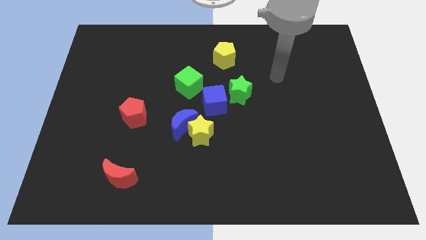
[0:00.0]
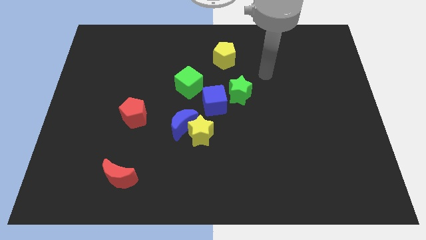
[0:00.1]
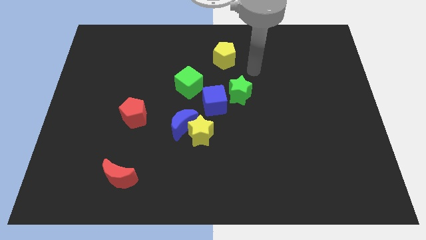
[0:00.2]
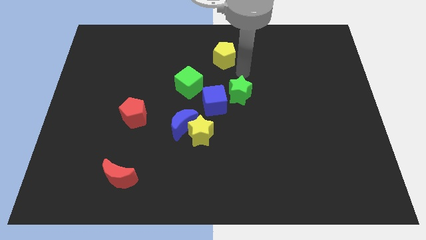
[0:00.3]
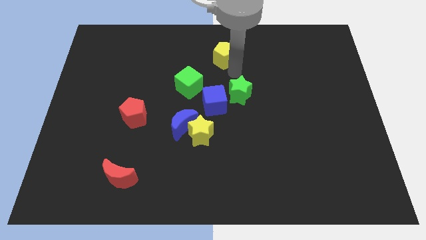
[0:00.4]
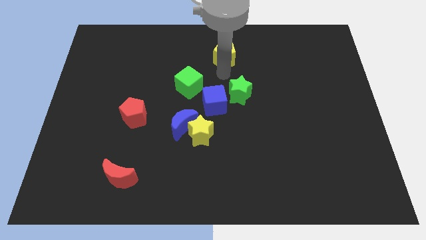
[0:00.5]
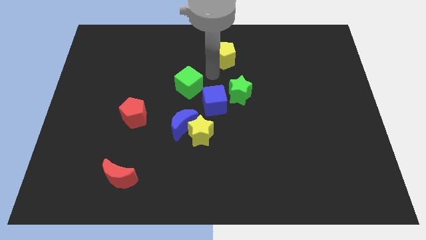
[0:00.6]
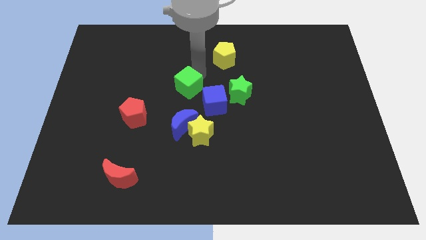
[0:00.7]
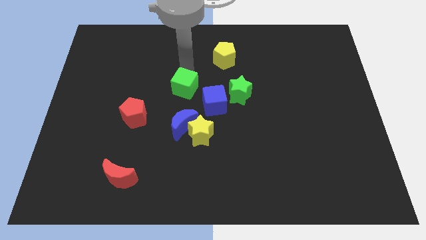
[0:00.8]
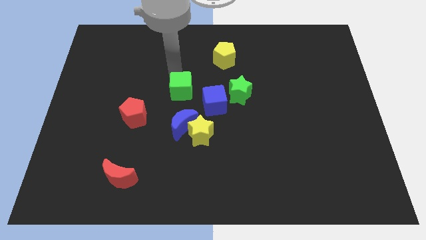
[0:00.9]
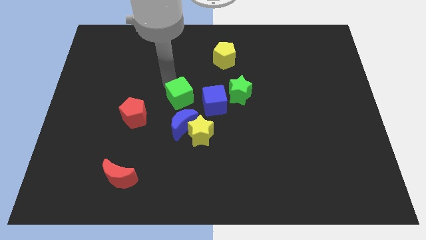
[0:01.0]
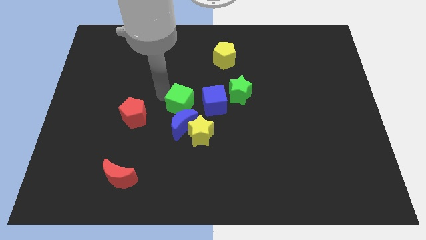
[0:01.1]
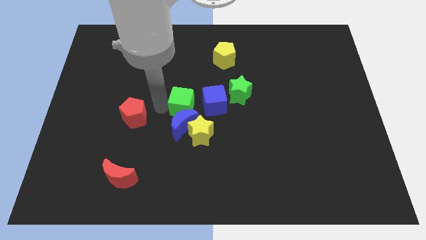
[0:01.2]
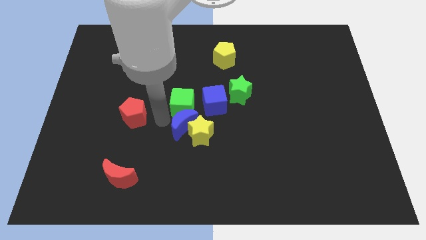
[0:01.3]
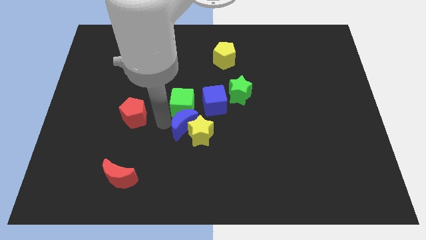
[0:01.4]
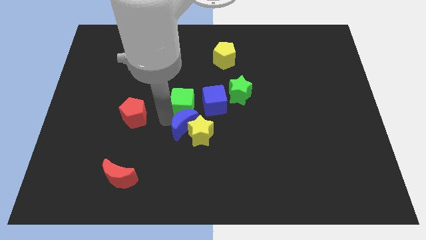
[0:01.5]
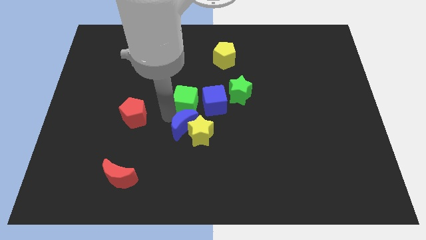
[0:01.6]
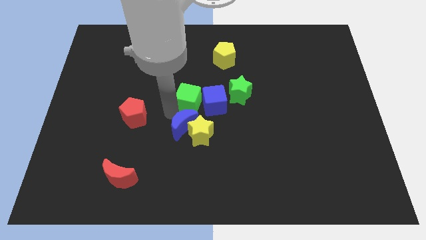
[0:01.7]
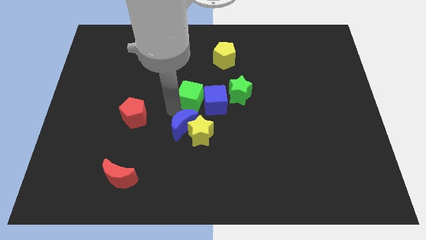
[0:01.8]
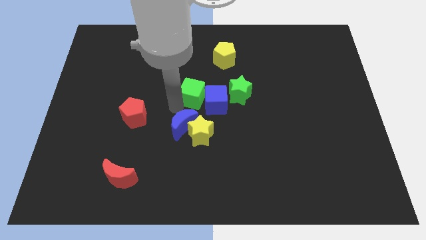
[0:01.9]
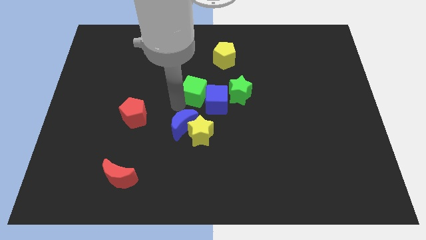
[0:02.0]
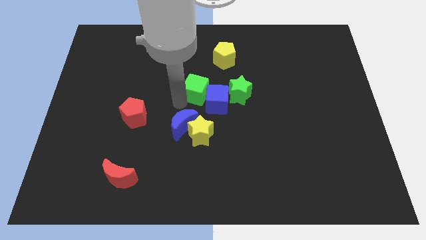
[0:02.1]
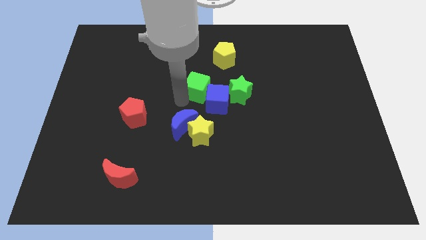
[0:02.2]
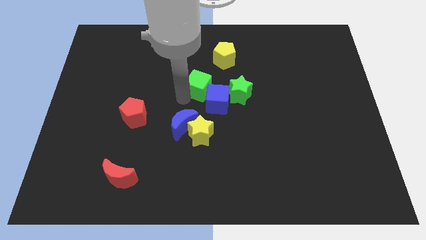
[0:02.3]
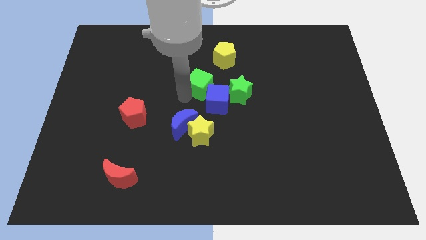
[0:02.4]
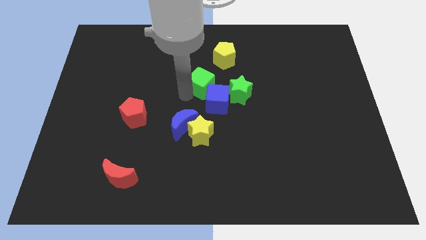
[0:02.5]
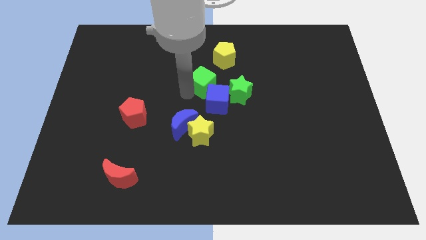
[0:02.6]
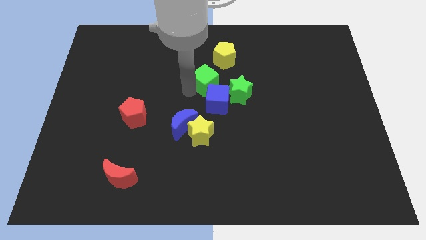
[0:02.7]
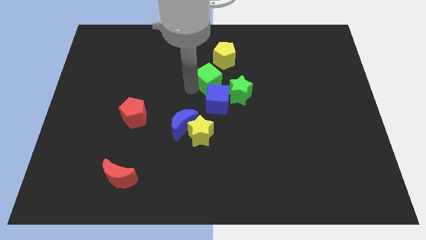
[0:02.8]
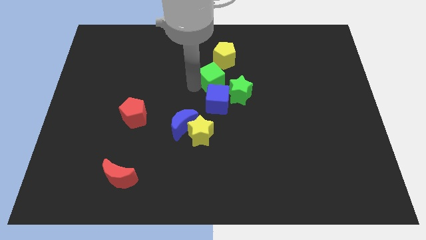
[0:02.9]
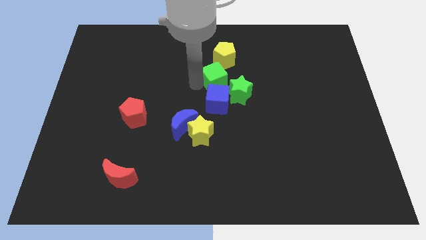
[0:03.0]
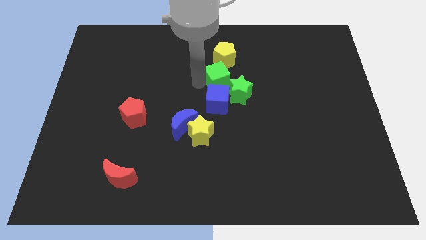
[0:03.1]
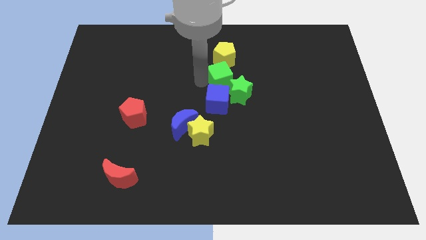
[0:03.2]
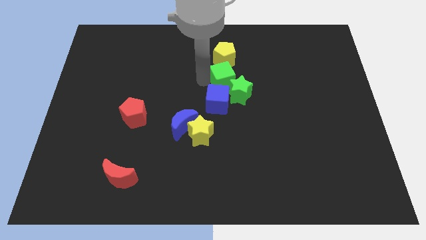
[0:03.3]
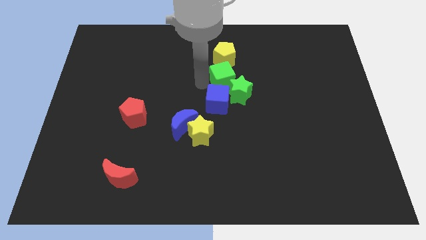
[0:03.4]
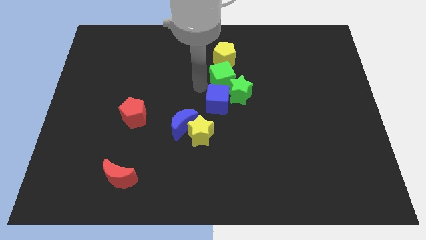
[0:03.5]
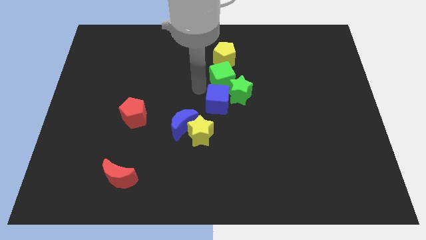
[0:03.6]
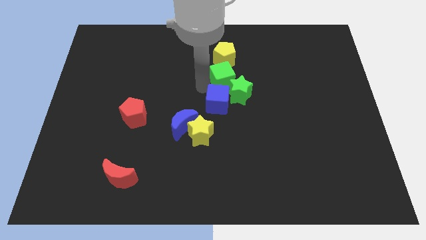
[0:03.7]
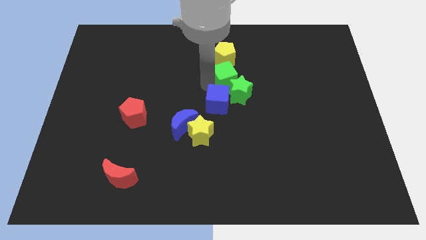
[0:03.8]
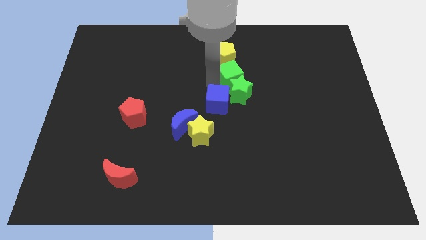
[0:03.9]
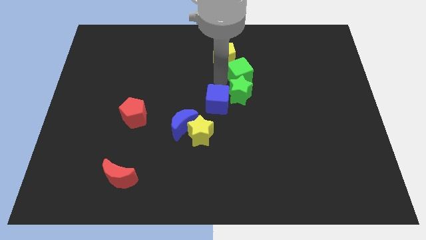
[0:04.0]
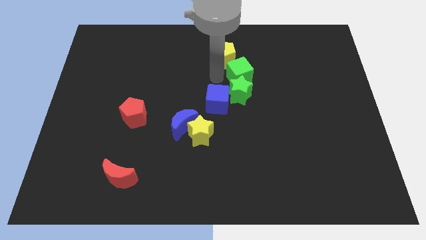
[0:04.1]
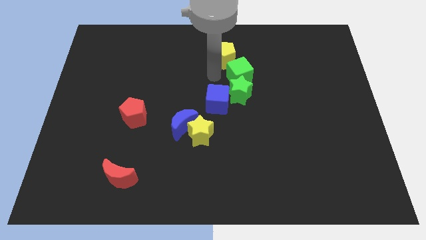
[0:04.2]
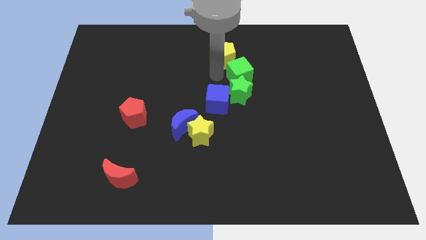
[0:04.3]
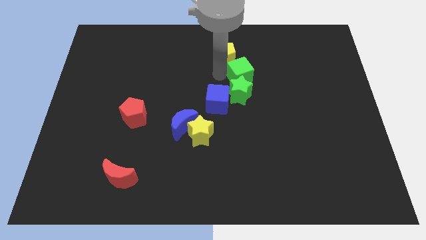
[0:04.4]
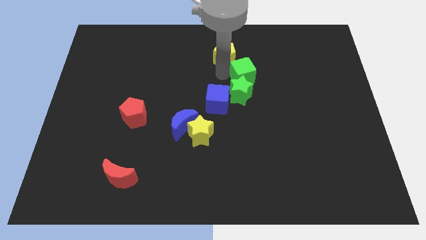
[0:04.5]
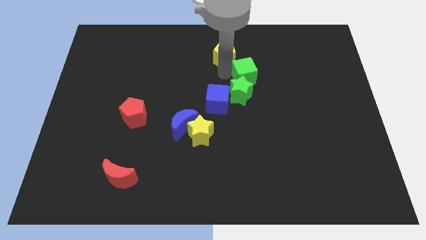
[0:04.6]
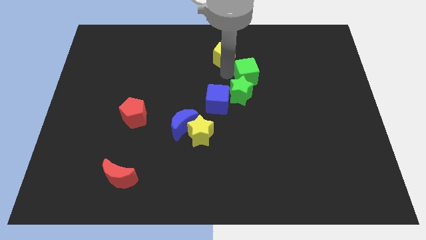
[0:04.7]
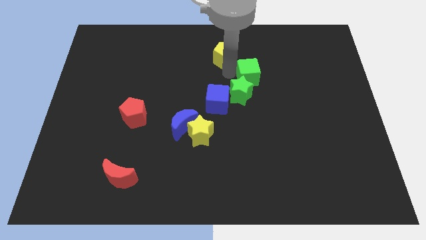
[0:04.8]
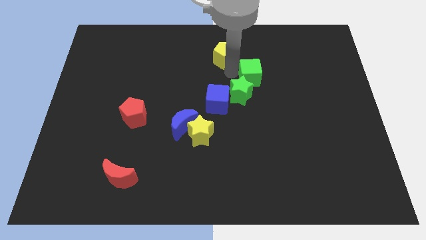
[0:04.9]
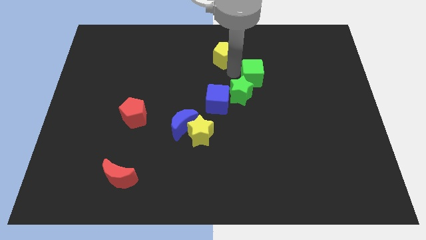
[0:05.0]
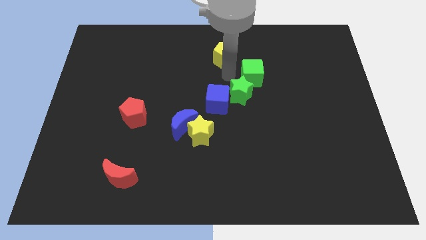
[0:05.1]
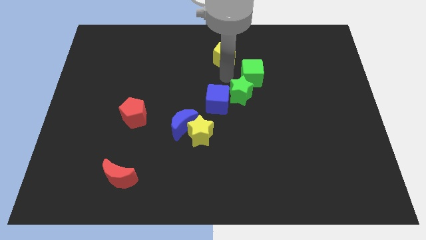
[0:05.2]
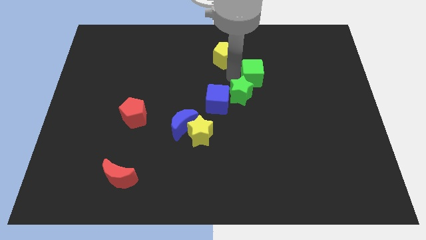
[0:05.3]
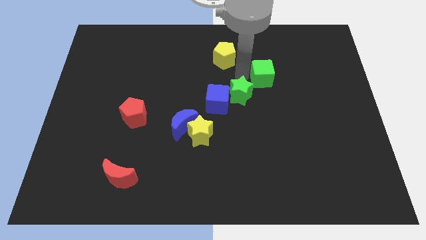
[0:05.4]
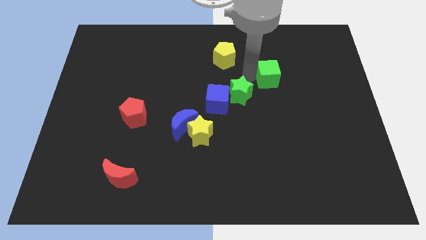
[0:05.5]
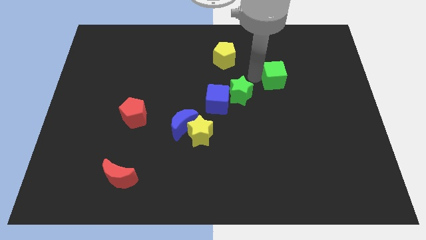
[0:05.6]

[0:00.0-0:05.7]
move the green cube to the right

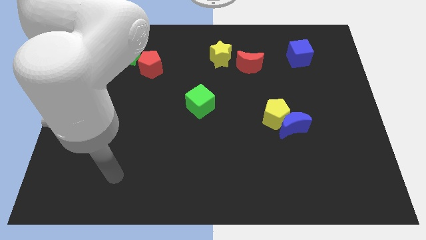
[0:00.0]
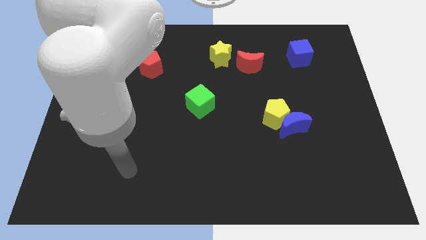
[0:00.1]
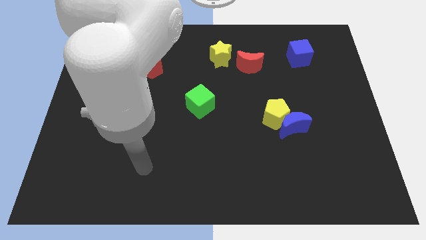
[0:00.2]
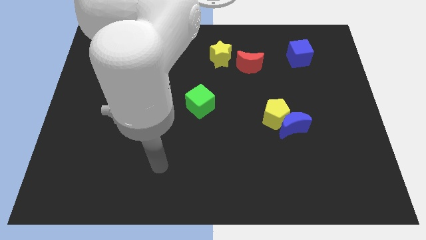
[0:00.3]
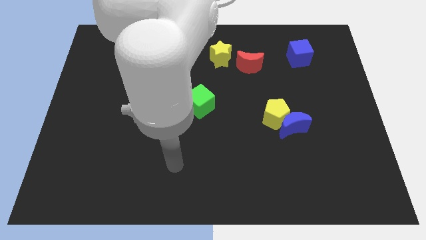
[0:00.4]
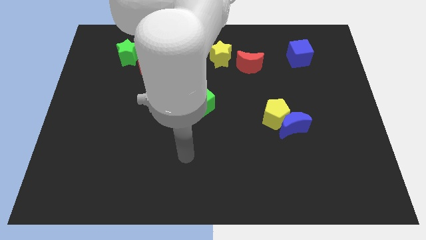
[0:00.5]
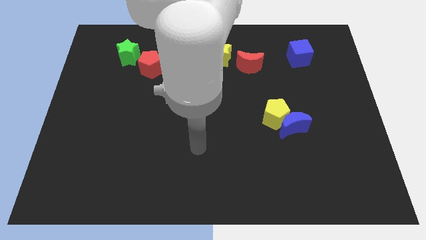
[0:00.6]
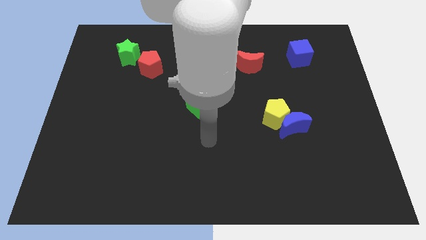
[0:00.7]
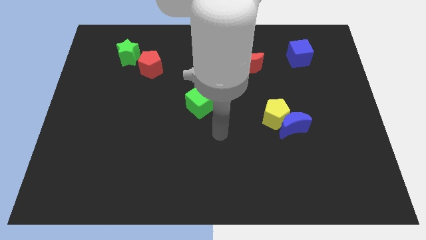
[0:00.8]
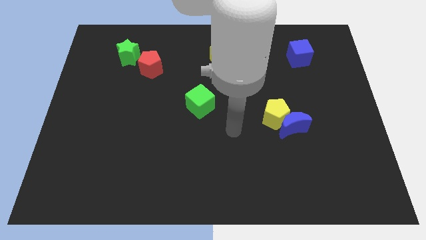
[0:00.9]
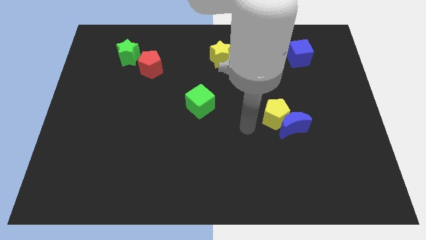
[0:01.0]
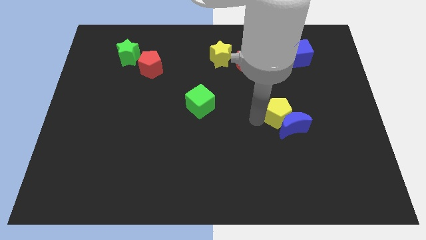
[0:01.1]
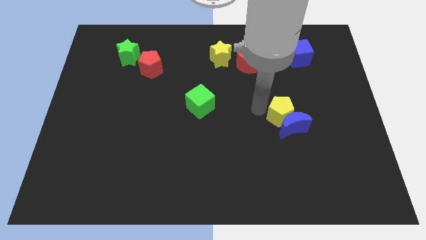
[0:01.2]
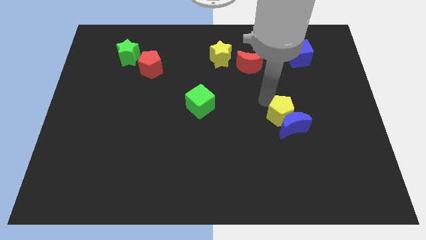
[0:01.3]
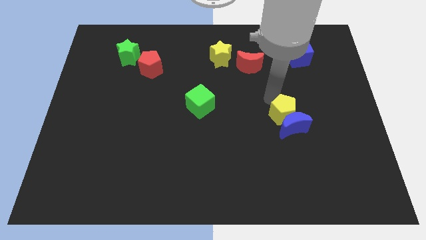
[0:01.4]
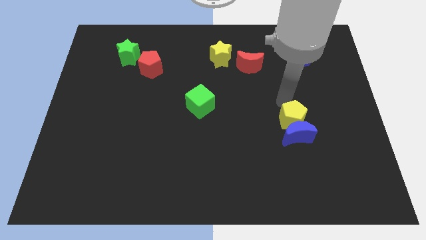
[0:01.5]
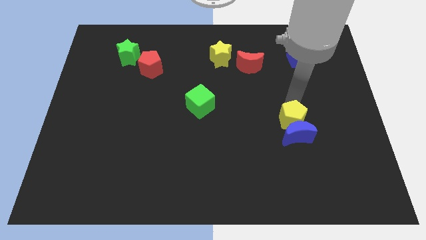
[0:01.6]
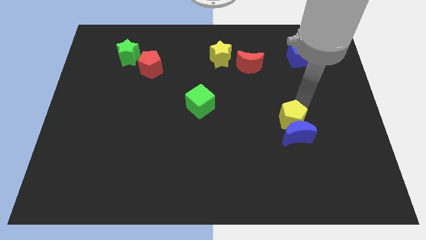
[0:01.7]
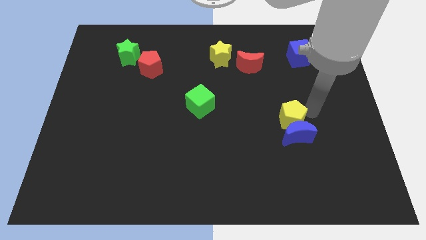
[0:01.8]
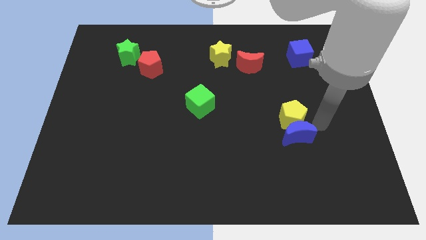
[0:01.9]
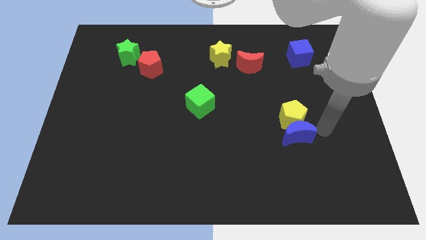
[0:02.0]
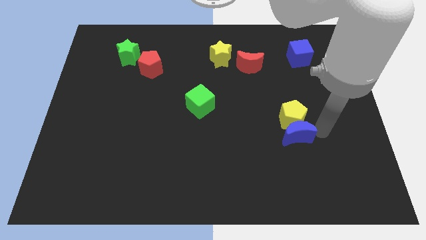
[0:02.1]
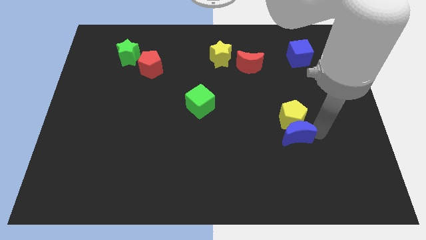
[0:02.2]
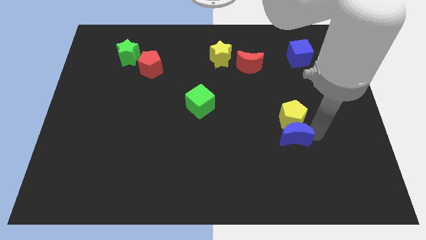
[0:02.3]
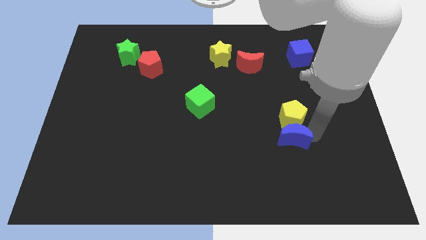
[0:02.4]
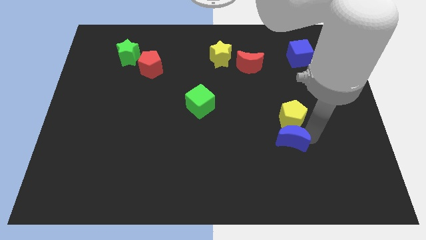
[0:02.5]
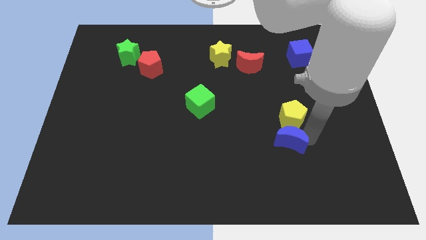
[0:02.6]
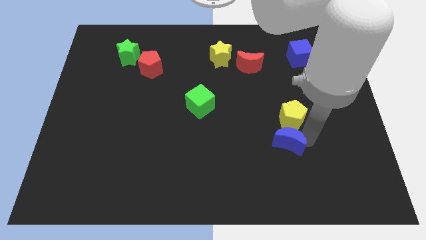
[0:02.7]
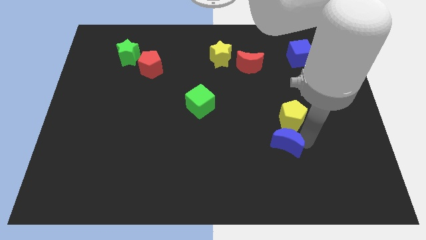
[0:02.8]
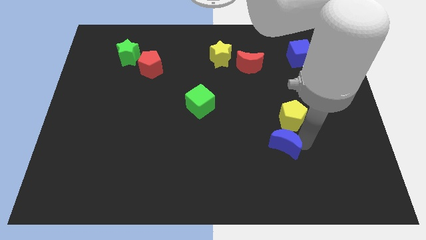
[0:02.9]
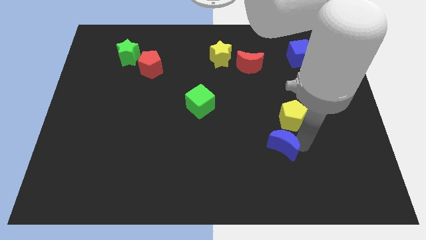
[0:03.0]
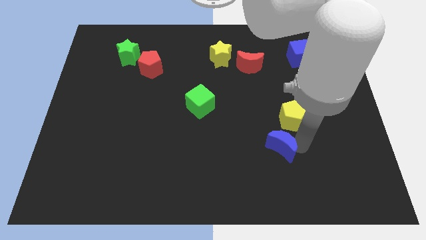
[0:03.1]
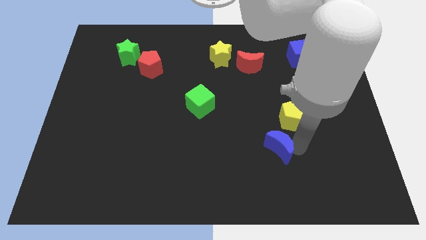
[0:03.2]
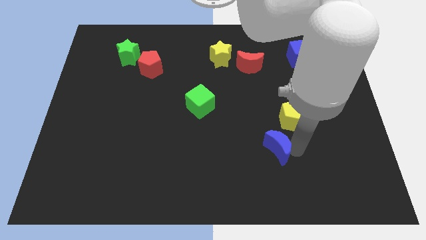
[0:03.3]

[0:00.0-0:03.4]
slightly slide the blue moon downwards and then left
